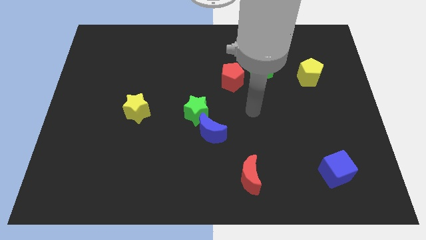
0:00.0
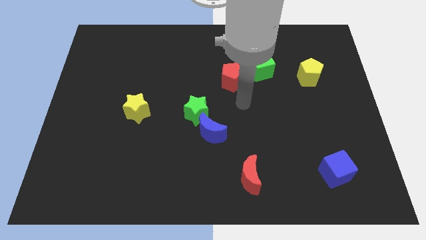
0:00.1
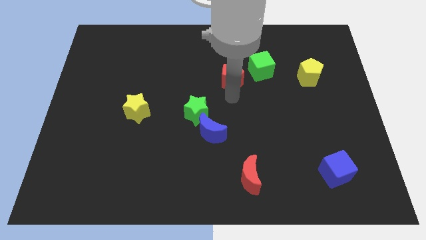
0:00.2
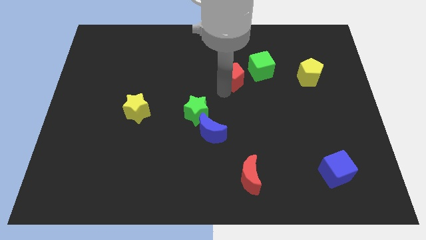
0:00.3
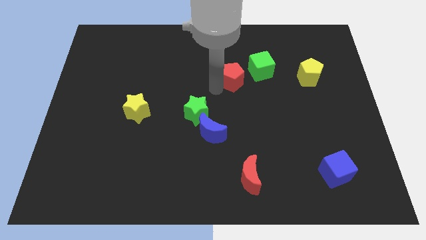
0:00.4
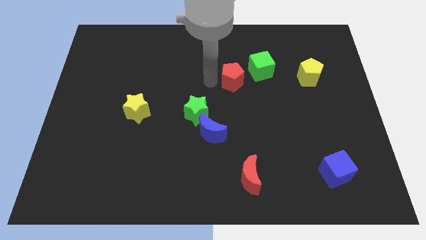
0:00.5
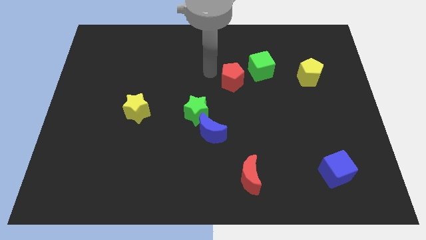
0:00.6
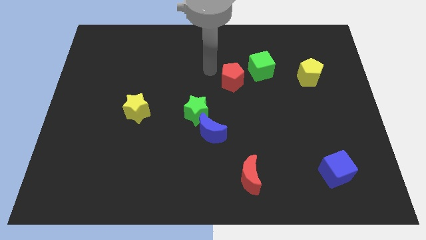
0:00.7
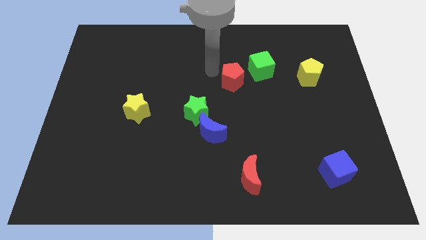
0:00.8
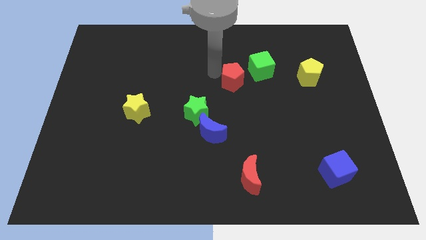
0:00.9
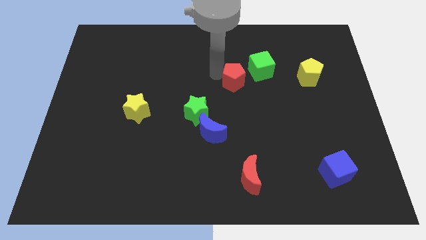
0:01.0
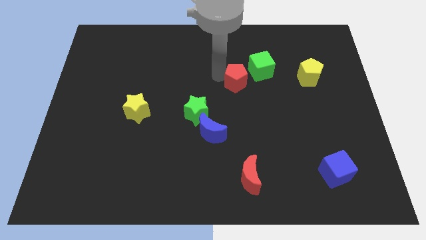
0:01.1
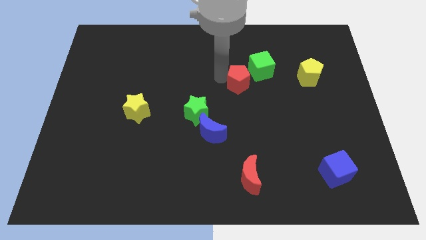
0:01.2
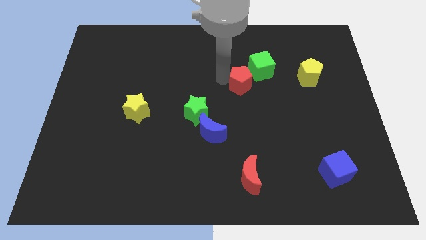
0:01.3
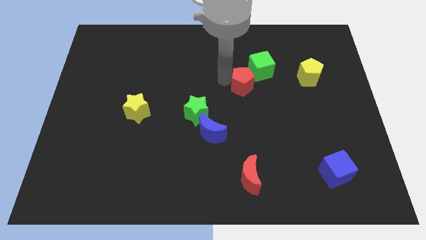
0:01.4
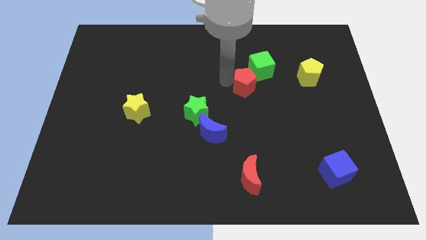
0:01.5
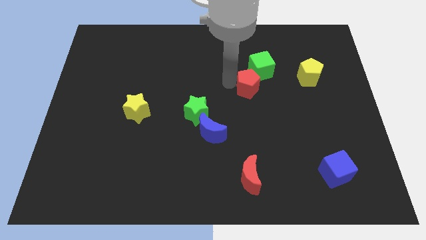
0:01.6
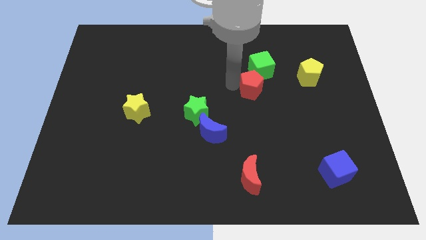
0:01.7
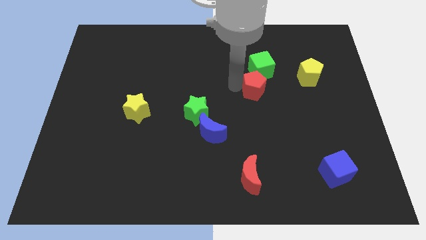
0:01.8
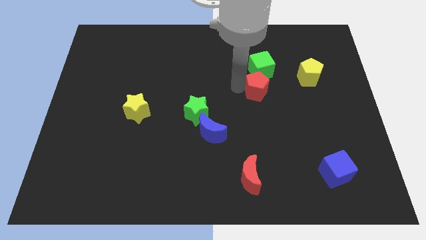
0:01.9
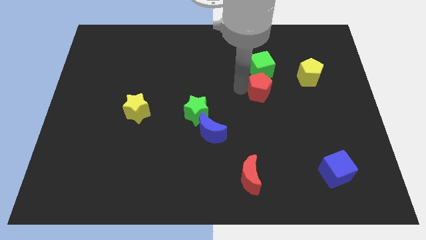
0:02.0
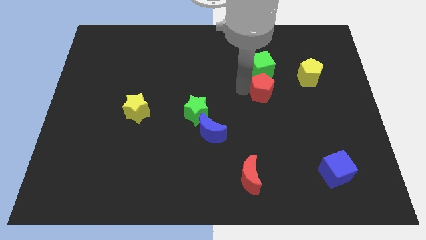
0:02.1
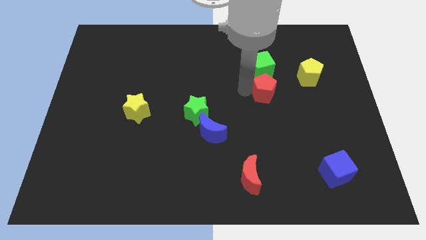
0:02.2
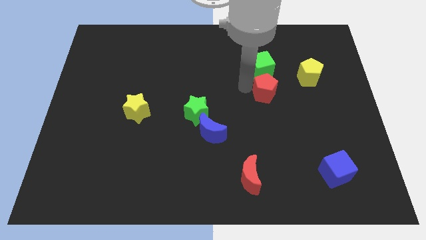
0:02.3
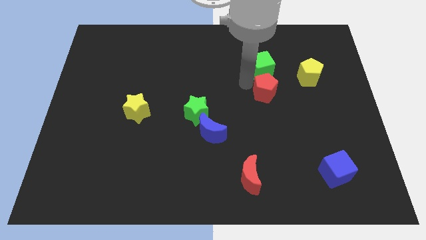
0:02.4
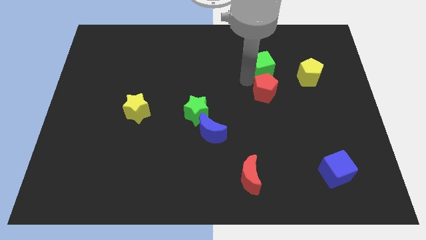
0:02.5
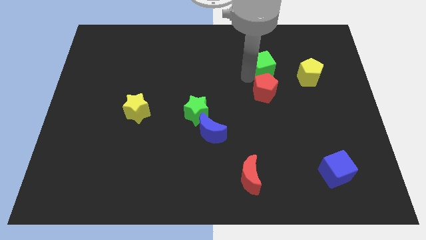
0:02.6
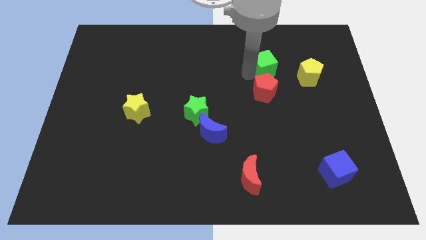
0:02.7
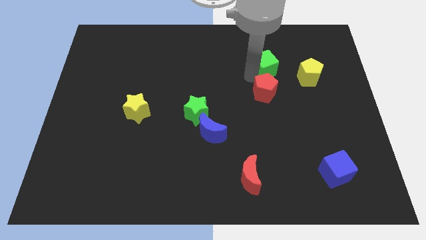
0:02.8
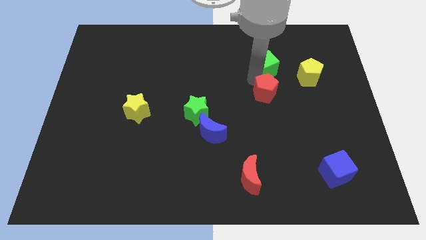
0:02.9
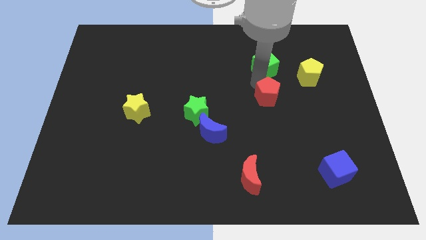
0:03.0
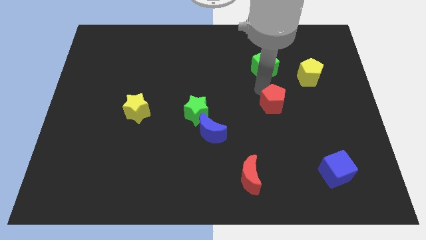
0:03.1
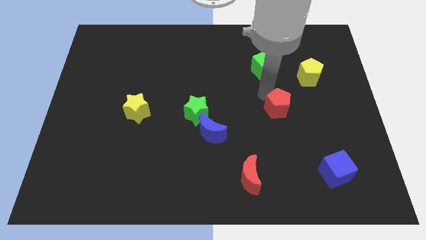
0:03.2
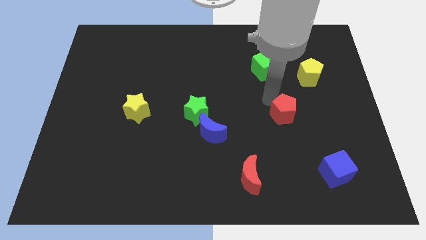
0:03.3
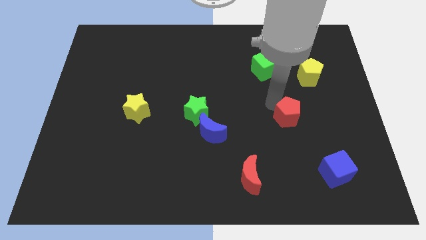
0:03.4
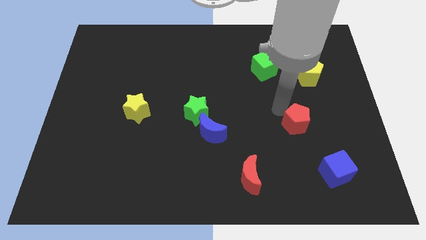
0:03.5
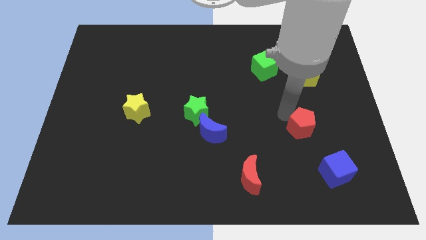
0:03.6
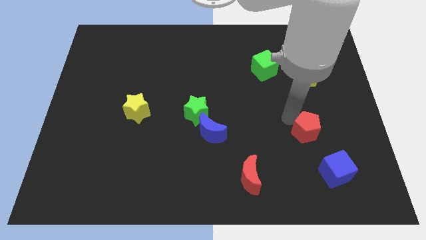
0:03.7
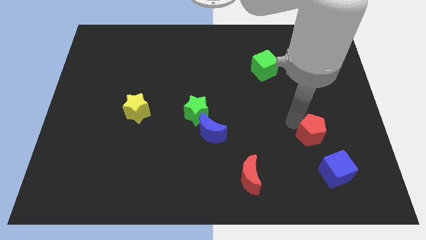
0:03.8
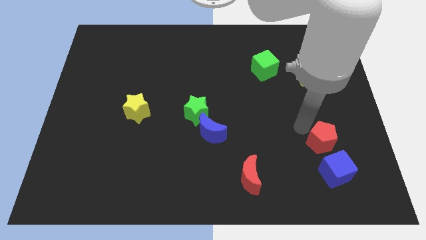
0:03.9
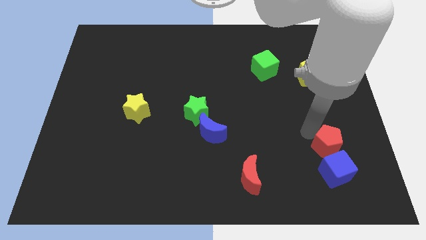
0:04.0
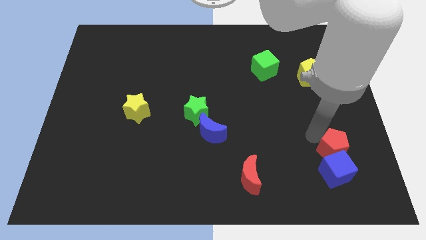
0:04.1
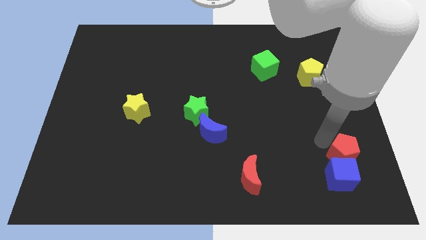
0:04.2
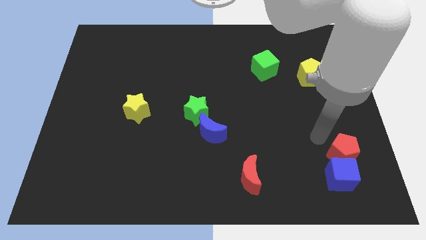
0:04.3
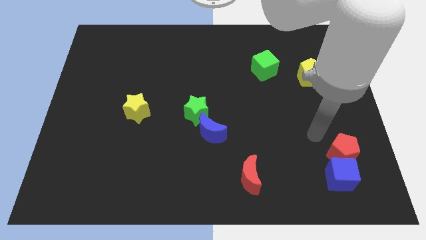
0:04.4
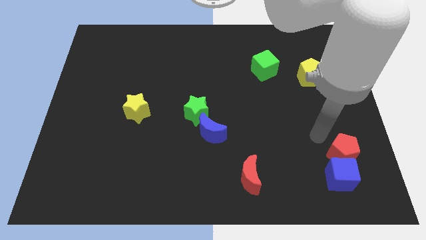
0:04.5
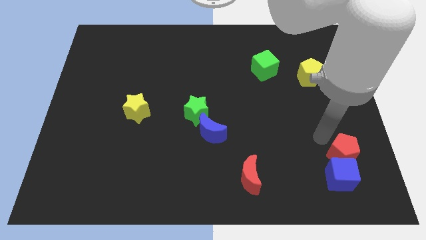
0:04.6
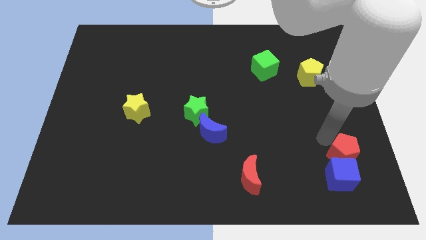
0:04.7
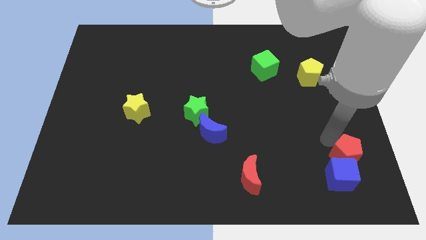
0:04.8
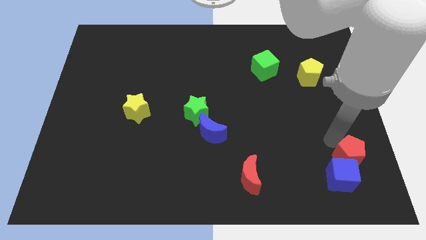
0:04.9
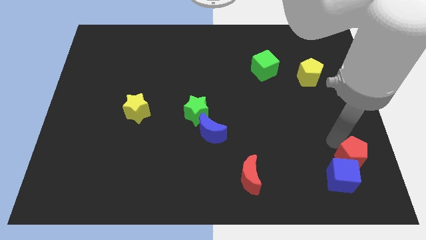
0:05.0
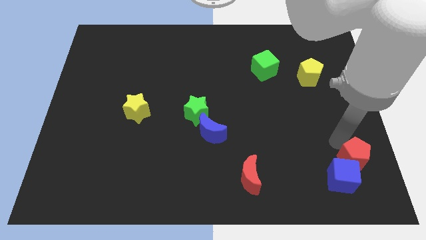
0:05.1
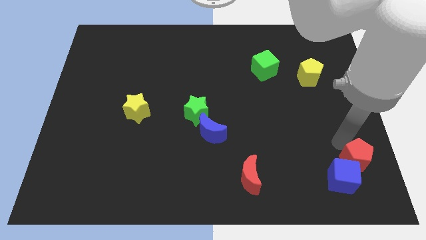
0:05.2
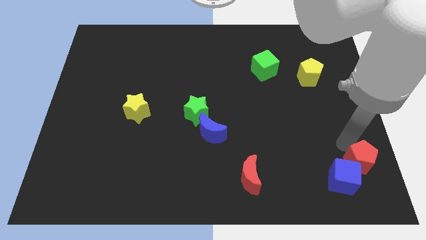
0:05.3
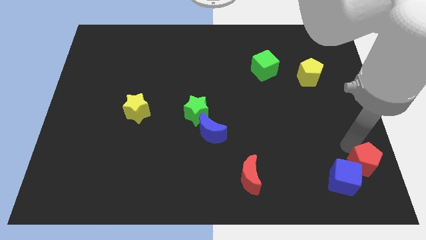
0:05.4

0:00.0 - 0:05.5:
move the red pentagon to the bottom right
